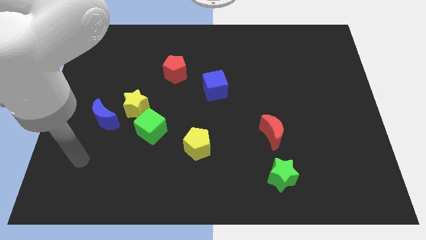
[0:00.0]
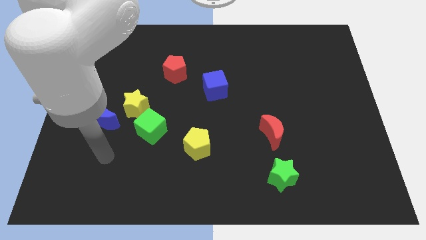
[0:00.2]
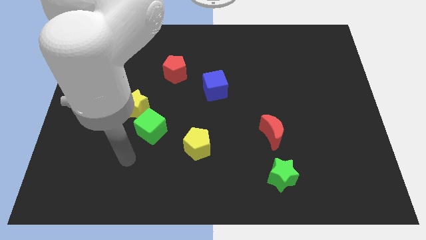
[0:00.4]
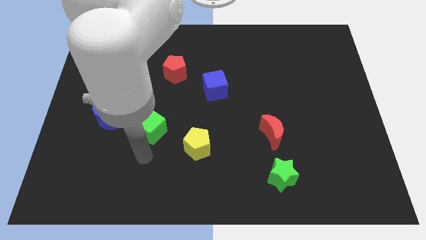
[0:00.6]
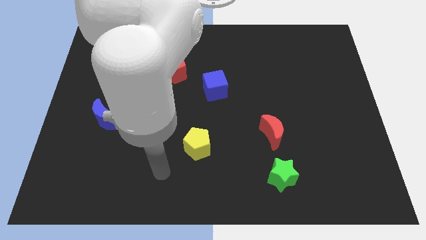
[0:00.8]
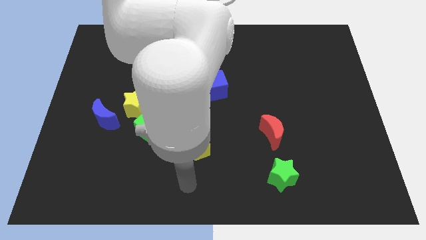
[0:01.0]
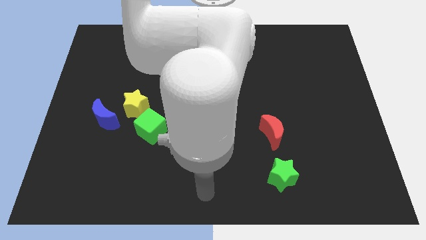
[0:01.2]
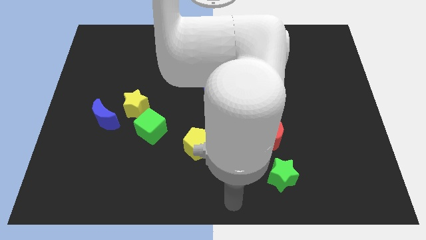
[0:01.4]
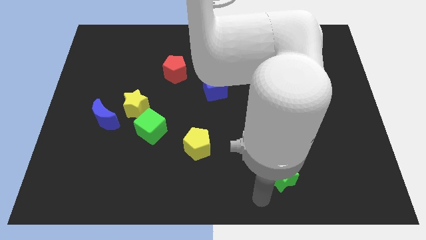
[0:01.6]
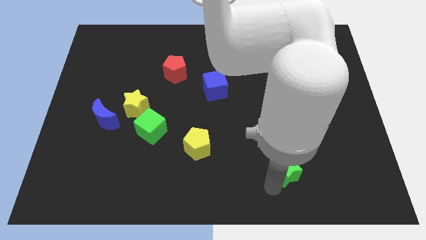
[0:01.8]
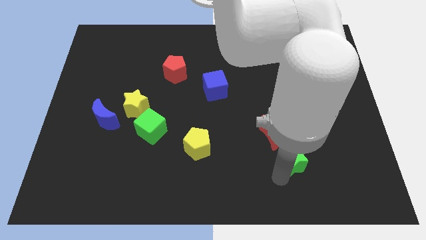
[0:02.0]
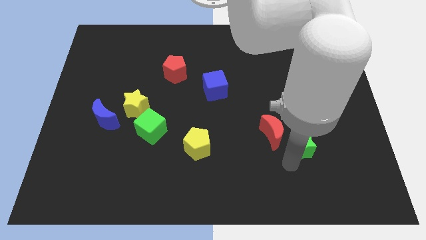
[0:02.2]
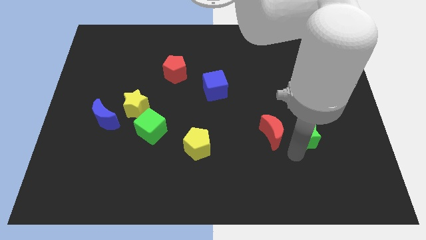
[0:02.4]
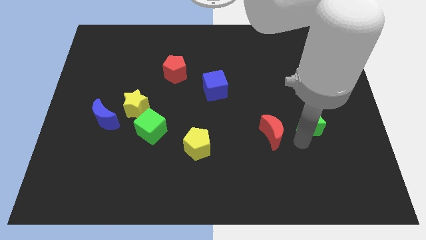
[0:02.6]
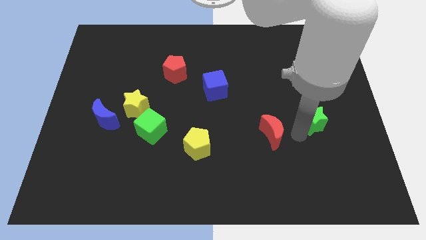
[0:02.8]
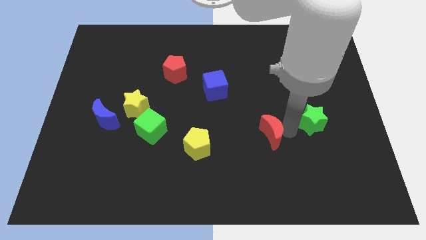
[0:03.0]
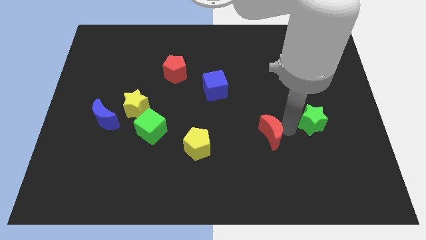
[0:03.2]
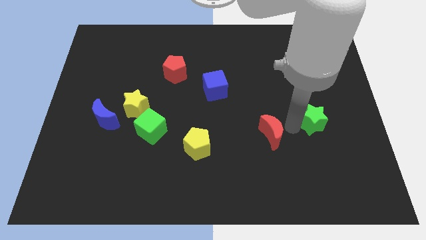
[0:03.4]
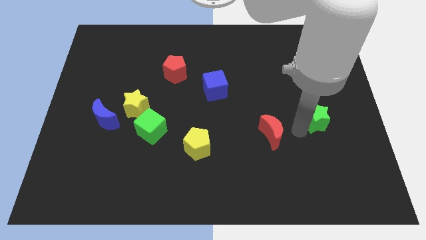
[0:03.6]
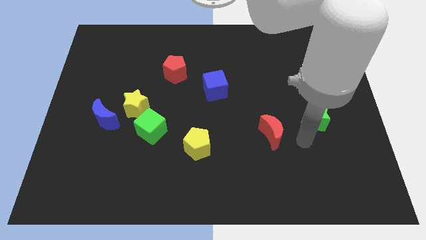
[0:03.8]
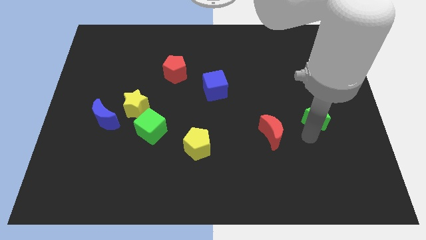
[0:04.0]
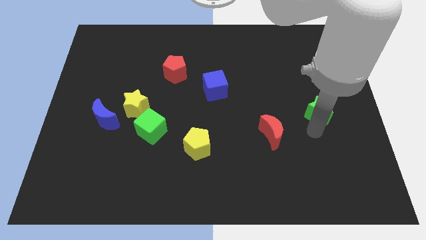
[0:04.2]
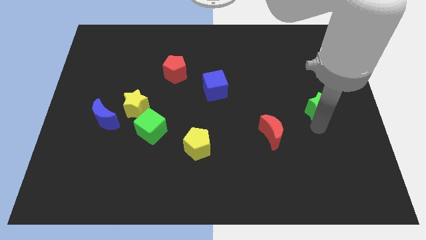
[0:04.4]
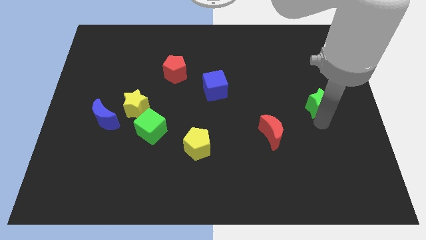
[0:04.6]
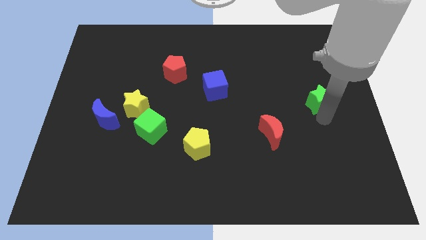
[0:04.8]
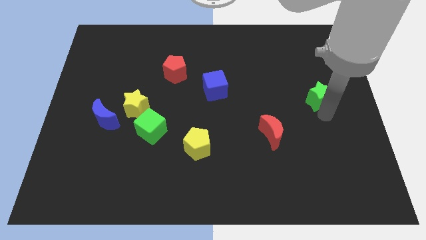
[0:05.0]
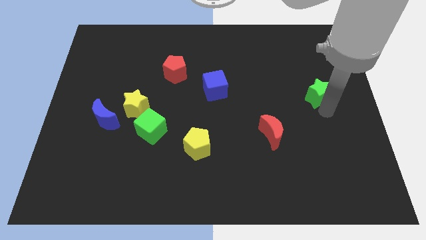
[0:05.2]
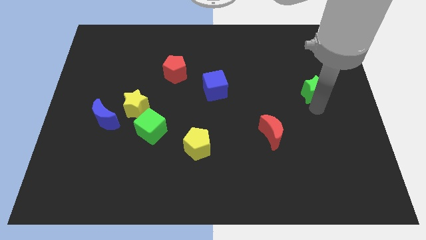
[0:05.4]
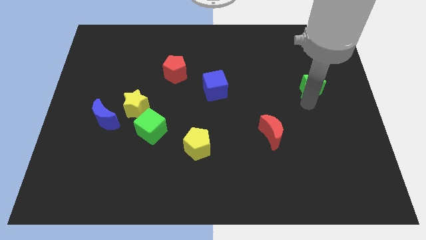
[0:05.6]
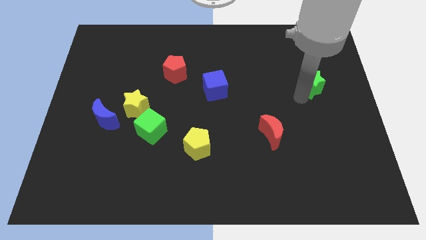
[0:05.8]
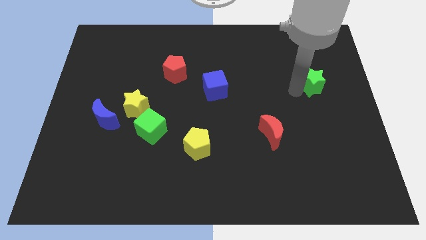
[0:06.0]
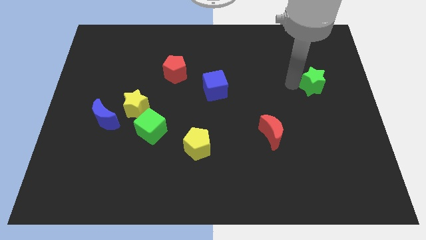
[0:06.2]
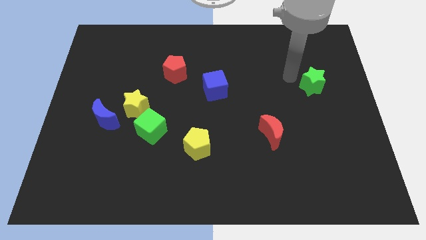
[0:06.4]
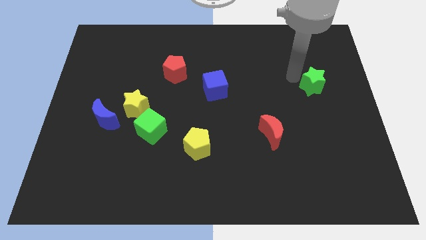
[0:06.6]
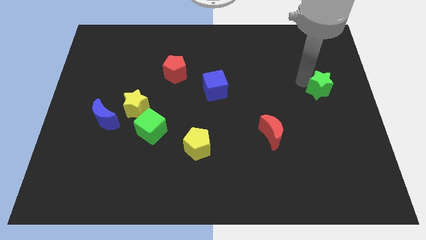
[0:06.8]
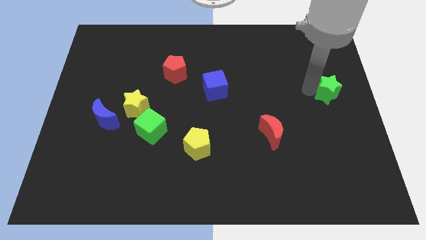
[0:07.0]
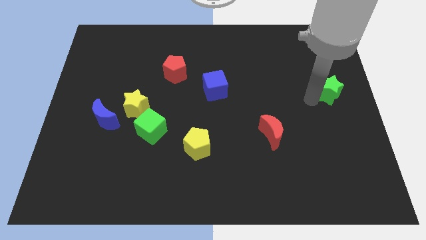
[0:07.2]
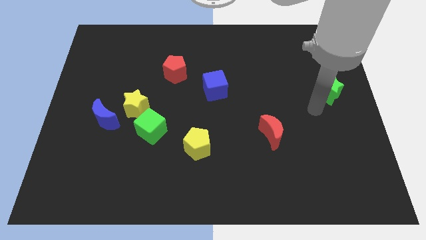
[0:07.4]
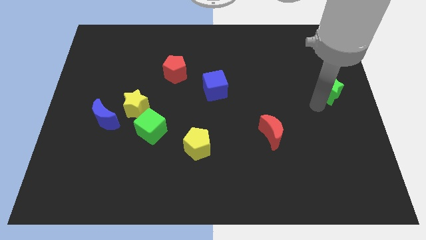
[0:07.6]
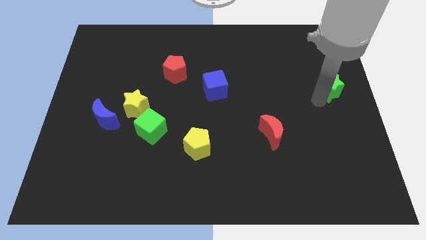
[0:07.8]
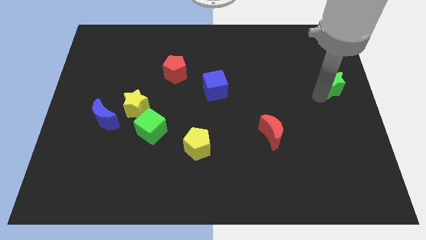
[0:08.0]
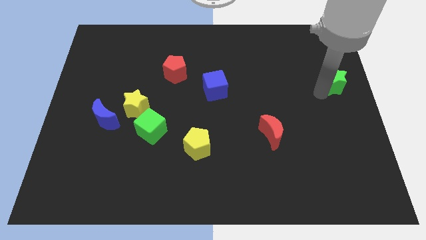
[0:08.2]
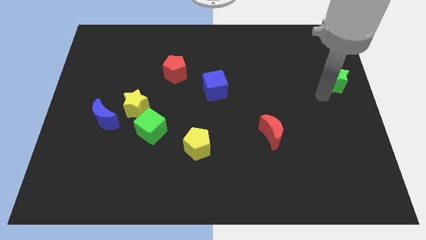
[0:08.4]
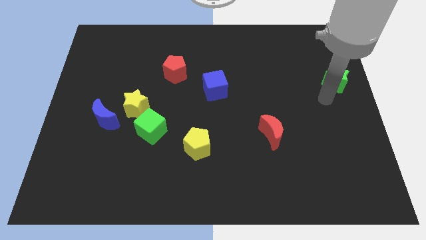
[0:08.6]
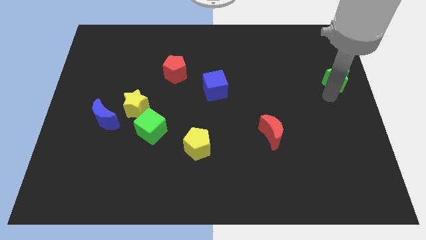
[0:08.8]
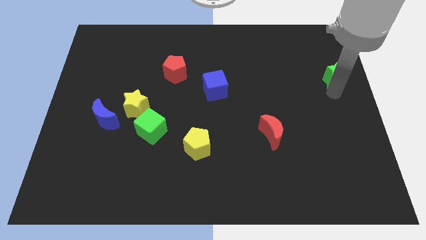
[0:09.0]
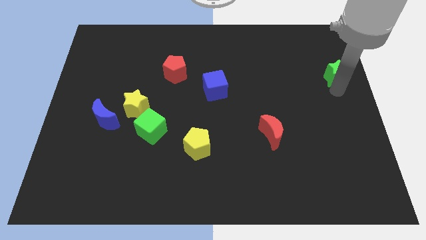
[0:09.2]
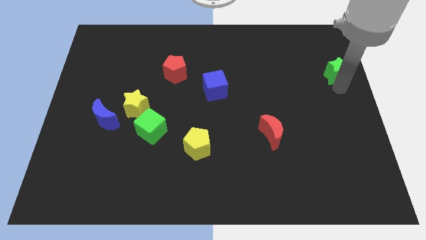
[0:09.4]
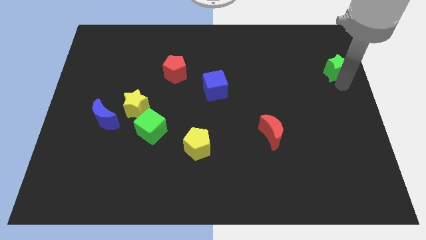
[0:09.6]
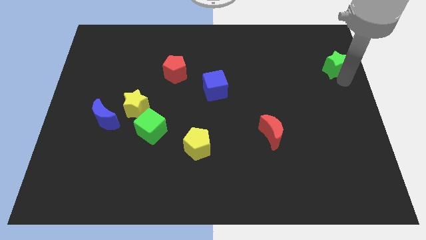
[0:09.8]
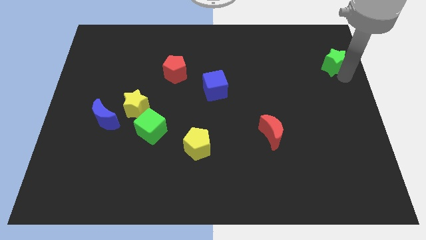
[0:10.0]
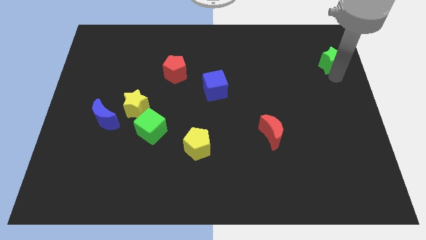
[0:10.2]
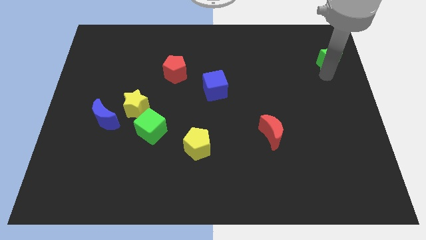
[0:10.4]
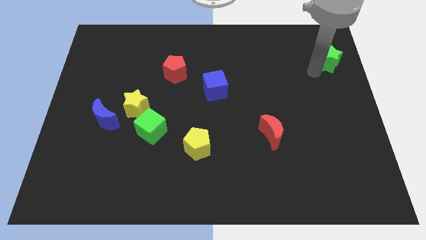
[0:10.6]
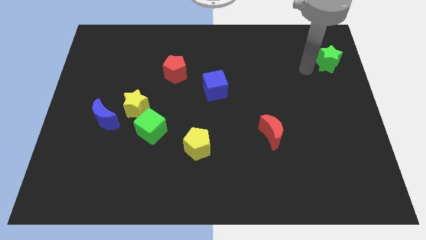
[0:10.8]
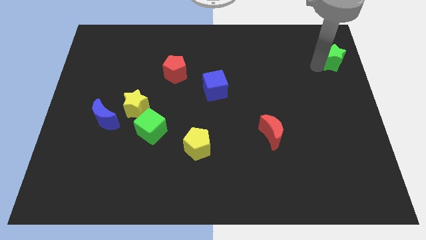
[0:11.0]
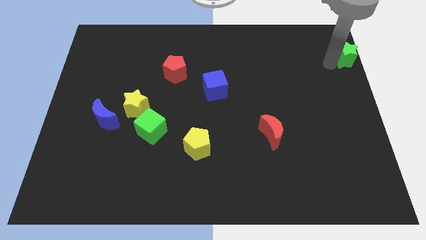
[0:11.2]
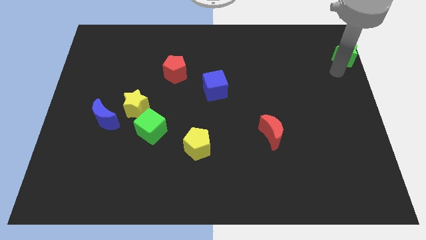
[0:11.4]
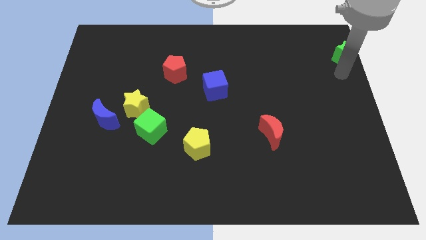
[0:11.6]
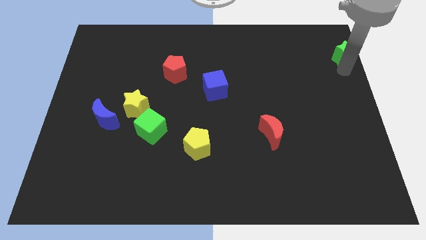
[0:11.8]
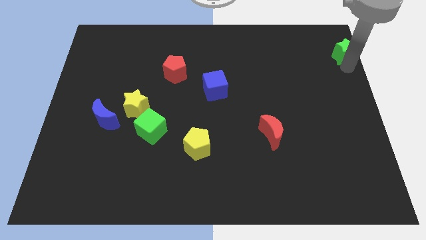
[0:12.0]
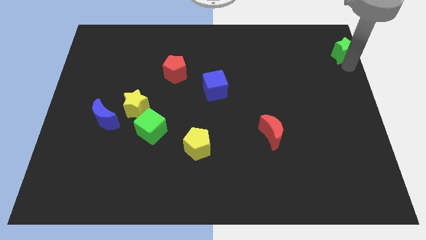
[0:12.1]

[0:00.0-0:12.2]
slide the green star to the top right of the board

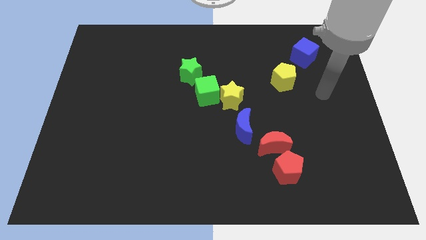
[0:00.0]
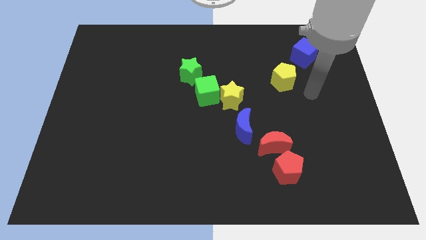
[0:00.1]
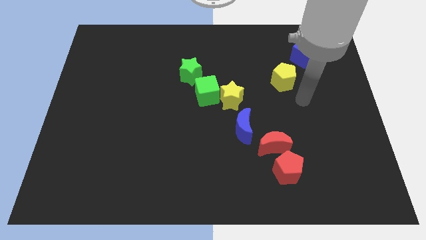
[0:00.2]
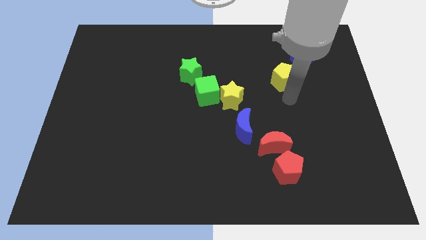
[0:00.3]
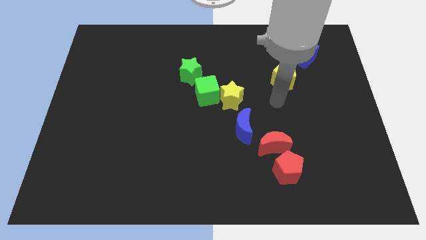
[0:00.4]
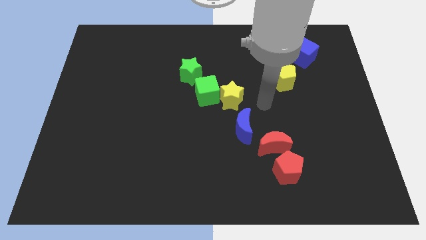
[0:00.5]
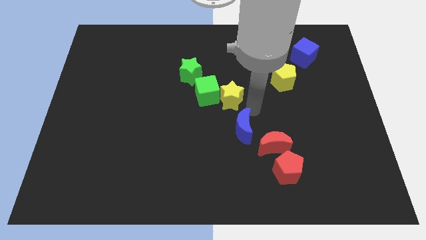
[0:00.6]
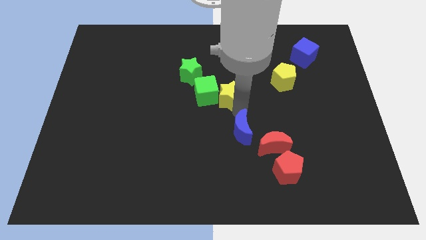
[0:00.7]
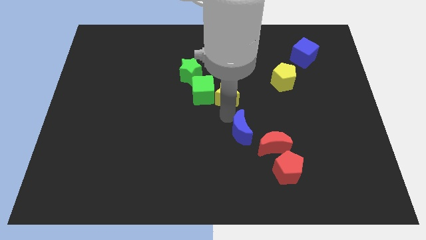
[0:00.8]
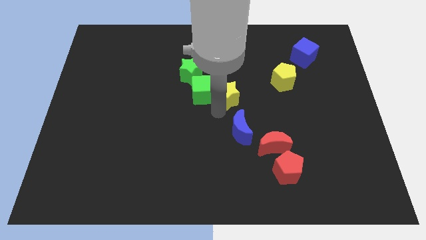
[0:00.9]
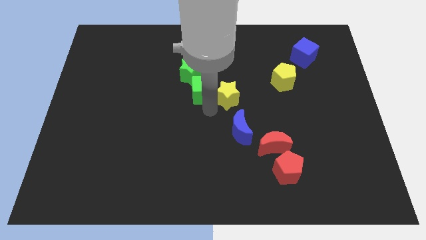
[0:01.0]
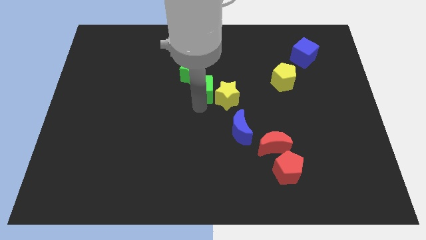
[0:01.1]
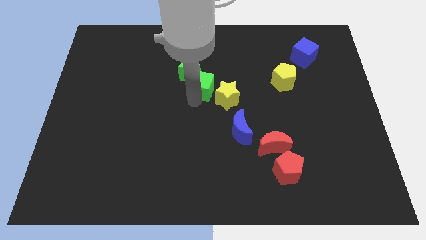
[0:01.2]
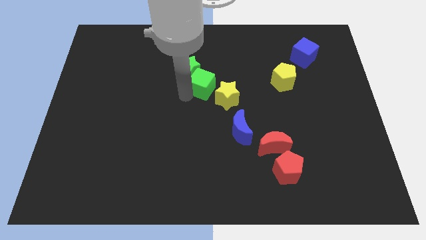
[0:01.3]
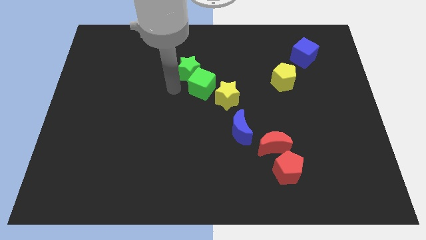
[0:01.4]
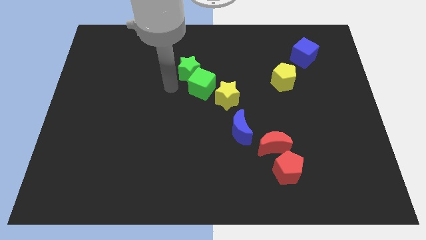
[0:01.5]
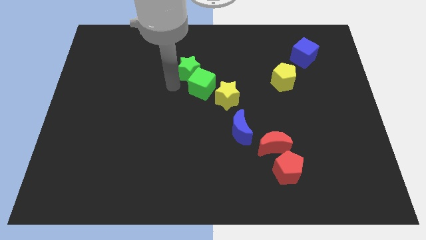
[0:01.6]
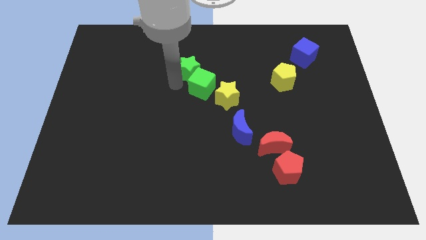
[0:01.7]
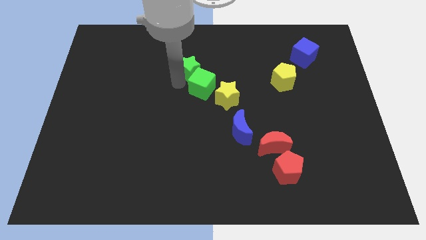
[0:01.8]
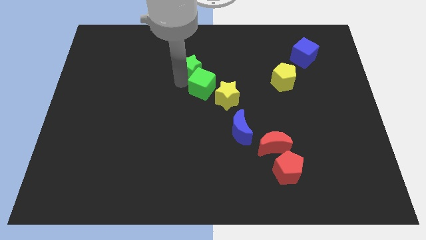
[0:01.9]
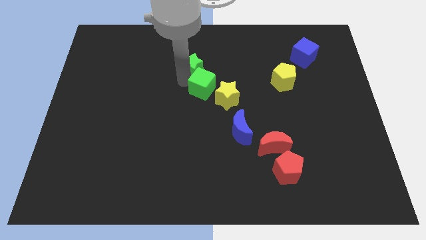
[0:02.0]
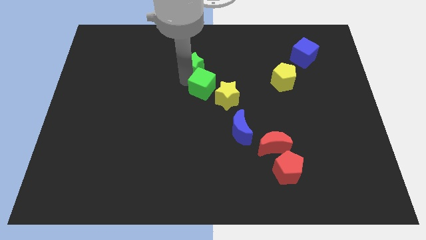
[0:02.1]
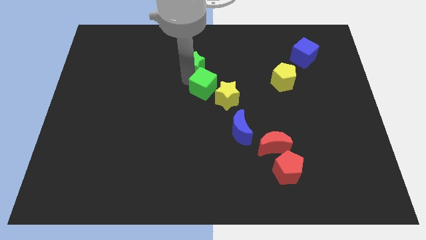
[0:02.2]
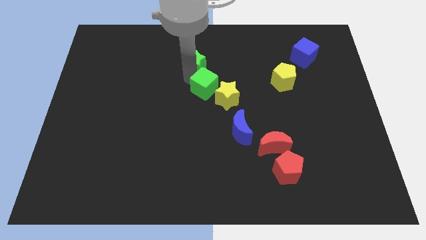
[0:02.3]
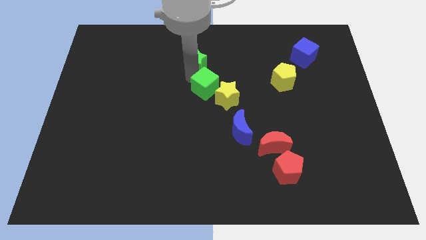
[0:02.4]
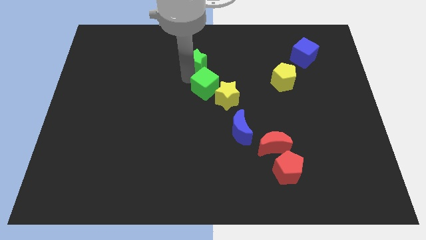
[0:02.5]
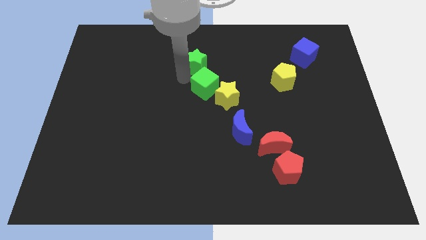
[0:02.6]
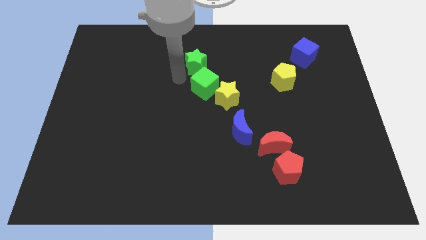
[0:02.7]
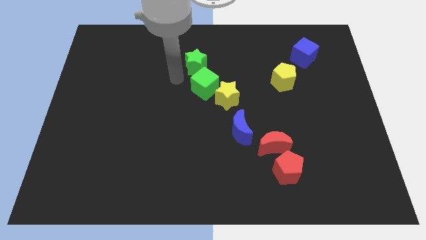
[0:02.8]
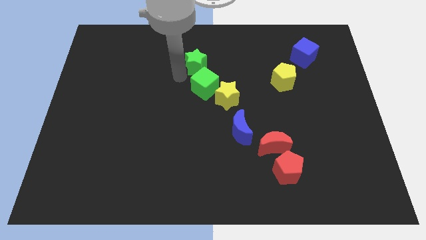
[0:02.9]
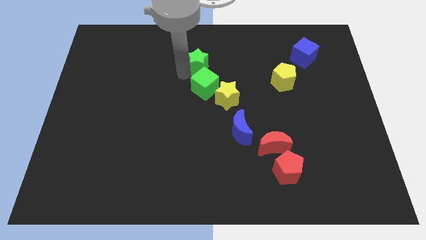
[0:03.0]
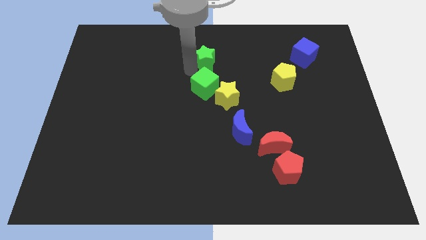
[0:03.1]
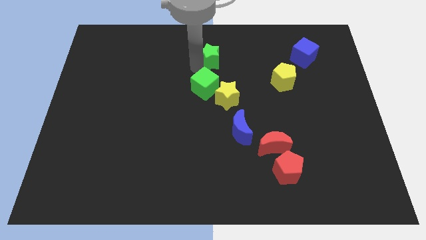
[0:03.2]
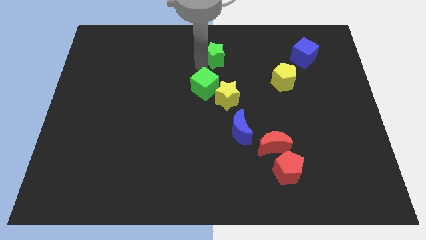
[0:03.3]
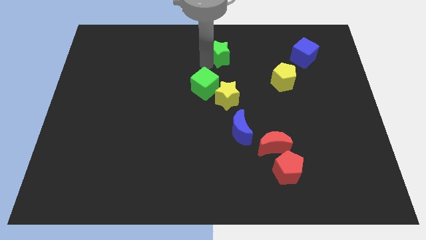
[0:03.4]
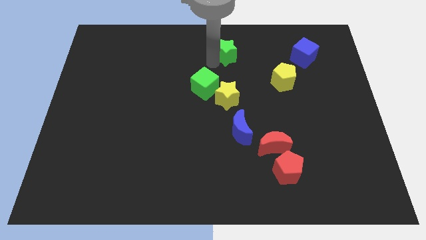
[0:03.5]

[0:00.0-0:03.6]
slide the green star to the top
